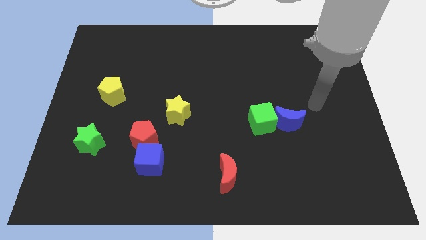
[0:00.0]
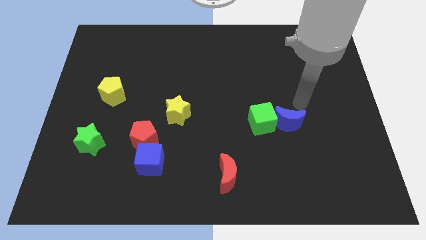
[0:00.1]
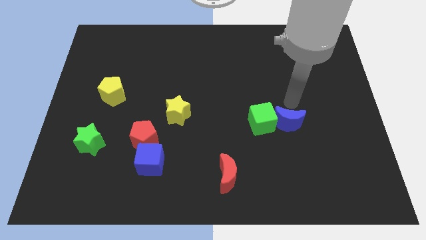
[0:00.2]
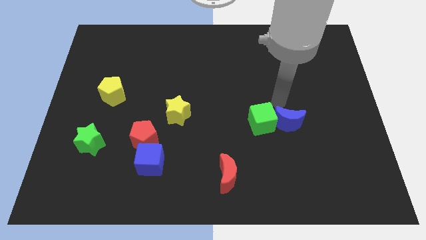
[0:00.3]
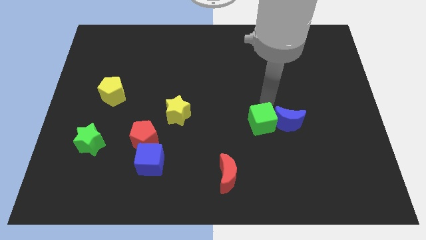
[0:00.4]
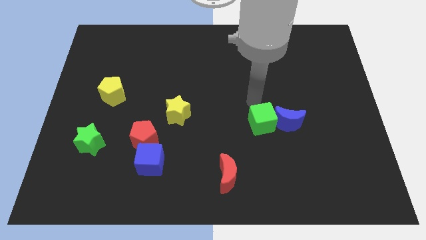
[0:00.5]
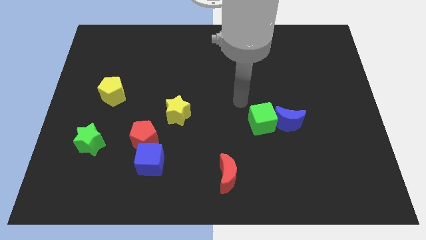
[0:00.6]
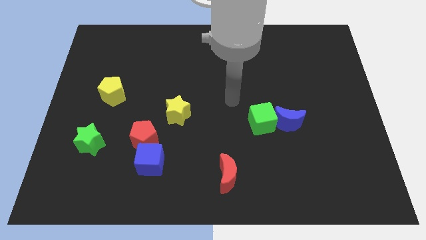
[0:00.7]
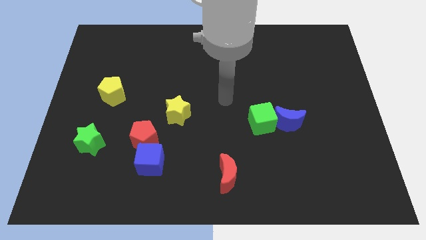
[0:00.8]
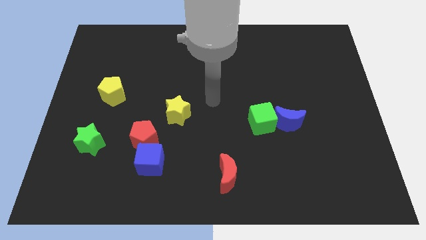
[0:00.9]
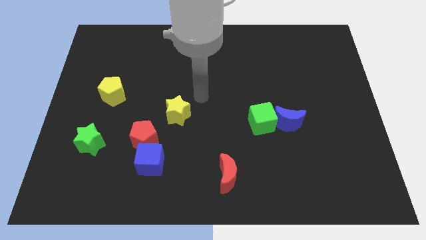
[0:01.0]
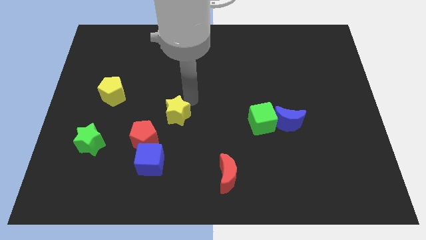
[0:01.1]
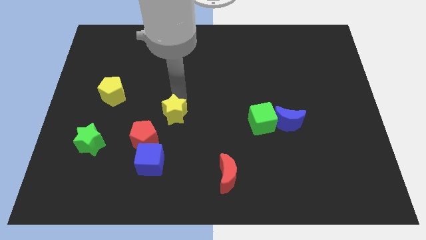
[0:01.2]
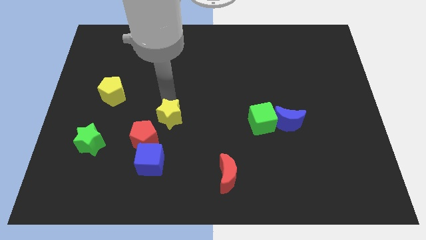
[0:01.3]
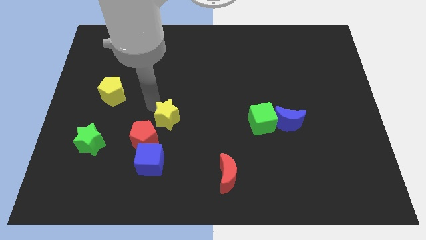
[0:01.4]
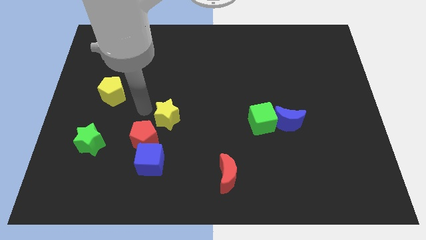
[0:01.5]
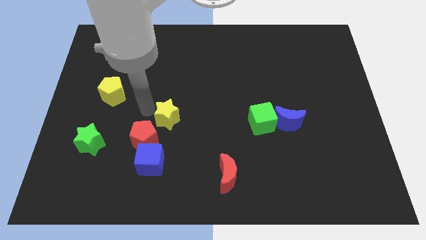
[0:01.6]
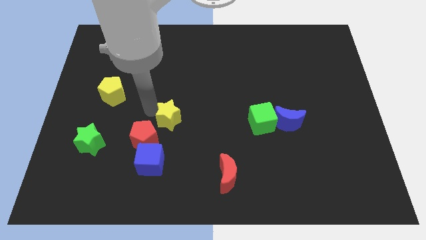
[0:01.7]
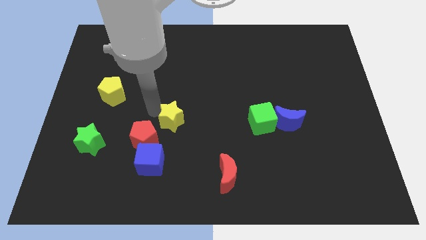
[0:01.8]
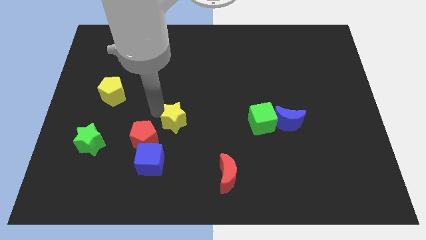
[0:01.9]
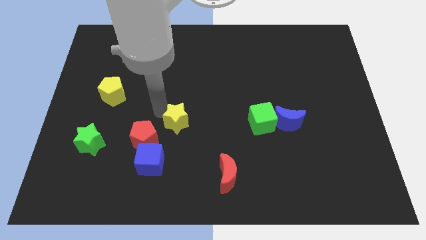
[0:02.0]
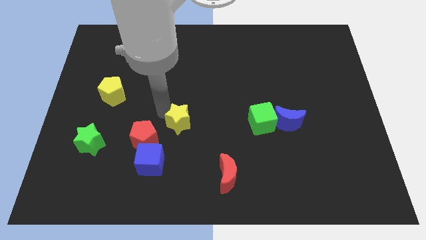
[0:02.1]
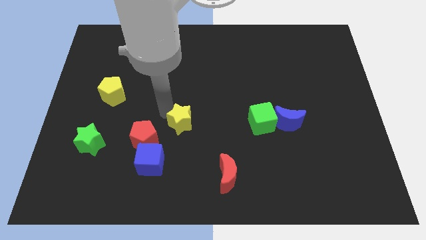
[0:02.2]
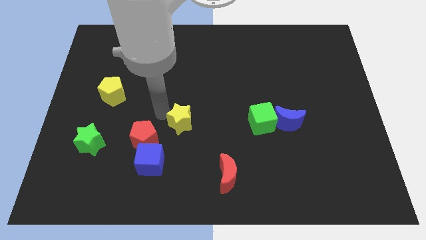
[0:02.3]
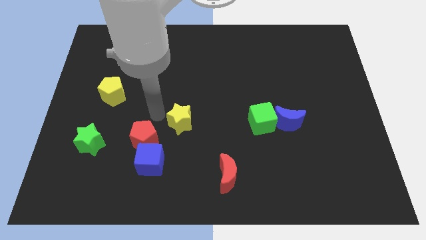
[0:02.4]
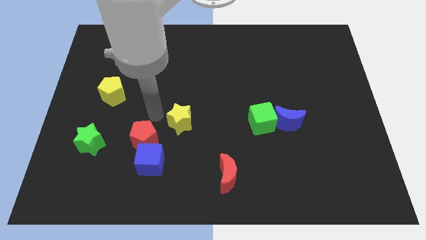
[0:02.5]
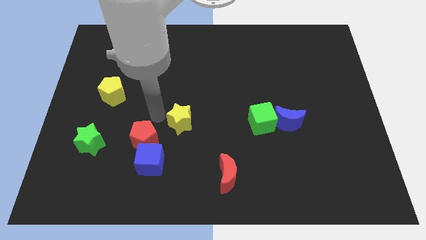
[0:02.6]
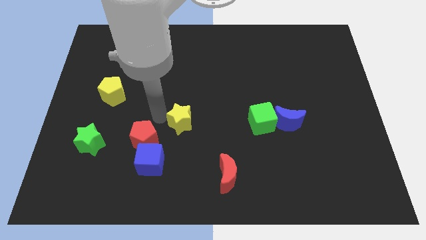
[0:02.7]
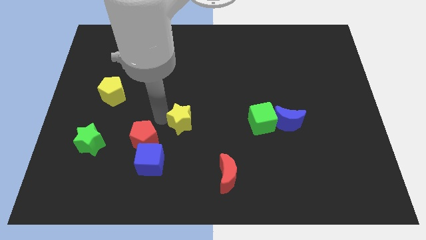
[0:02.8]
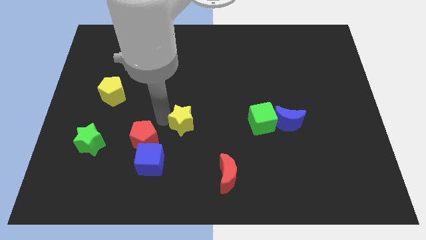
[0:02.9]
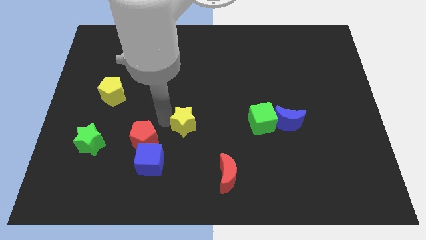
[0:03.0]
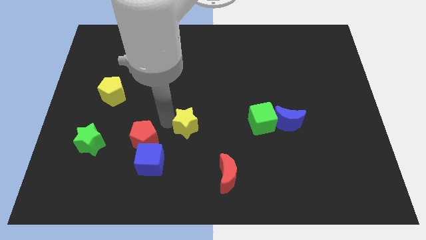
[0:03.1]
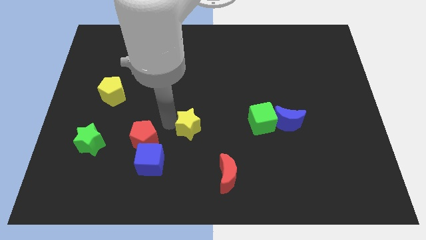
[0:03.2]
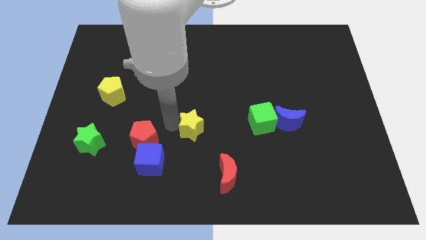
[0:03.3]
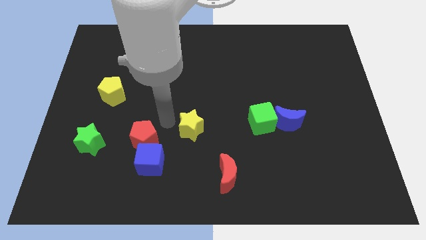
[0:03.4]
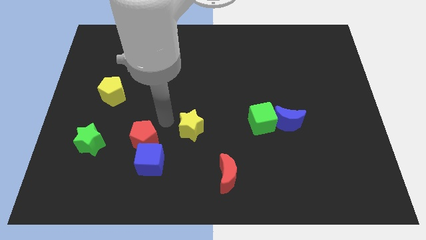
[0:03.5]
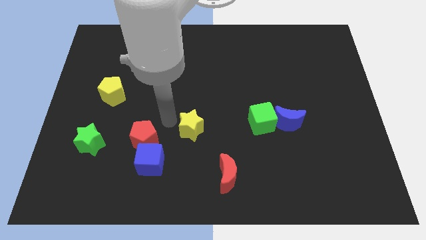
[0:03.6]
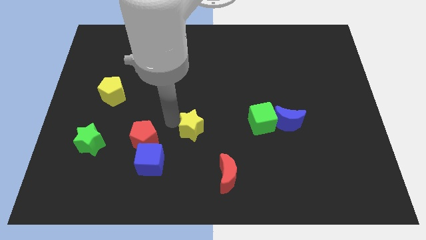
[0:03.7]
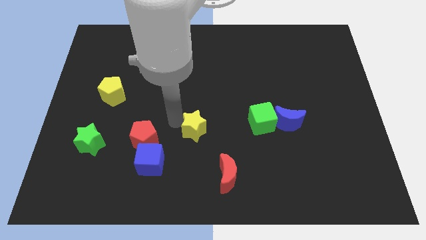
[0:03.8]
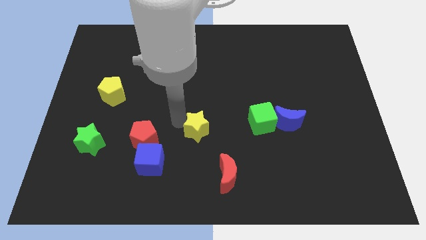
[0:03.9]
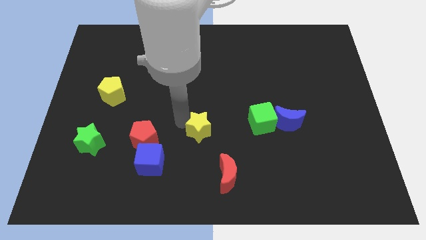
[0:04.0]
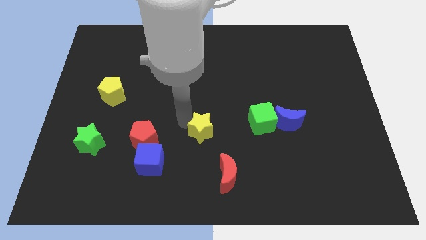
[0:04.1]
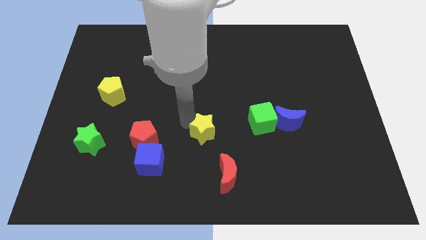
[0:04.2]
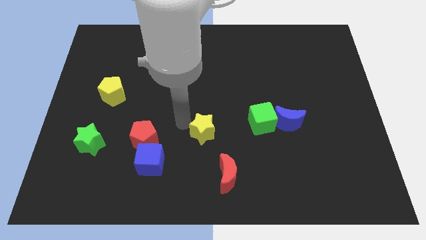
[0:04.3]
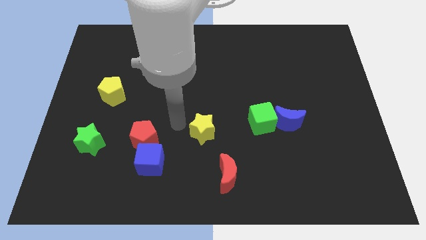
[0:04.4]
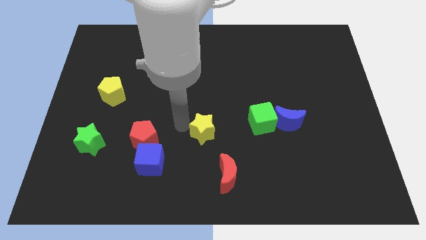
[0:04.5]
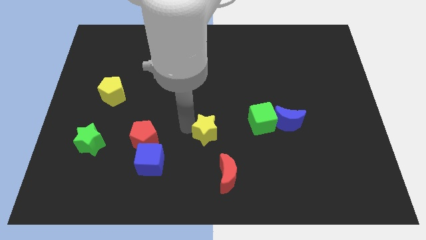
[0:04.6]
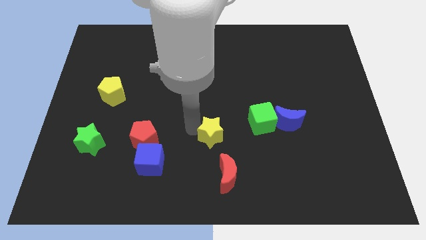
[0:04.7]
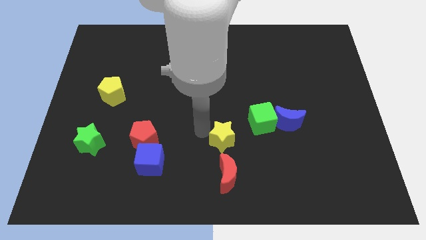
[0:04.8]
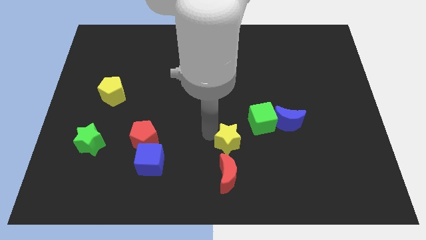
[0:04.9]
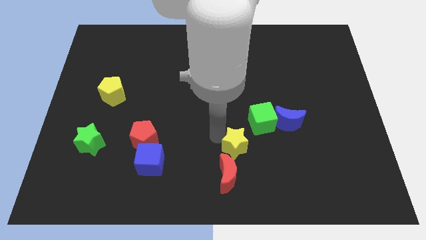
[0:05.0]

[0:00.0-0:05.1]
move the yellow star to the top right side of the red moon

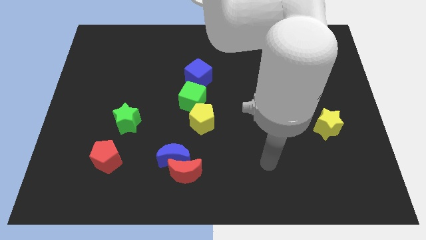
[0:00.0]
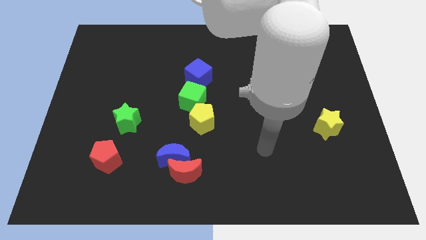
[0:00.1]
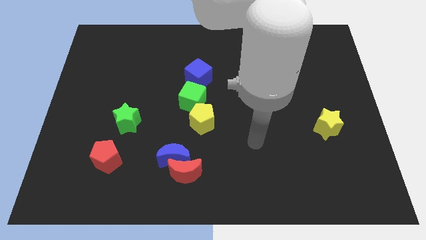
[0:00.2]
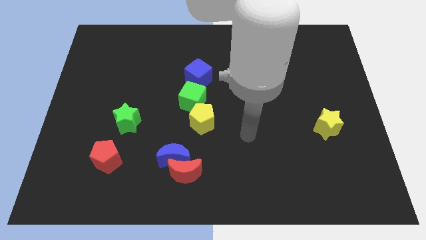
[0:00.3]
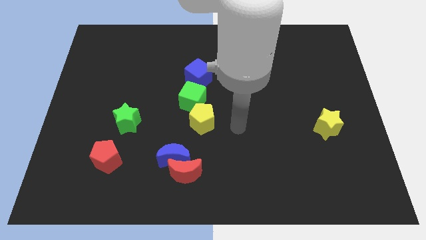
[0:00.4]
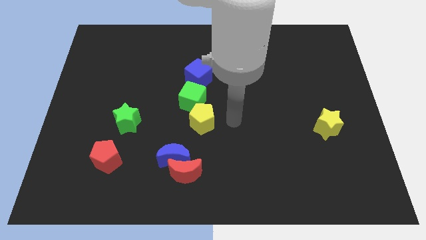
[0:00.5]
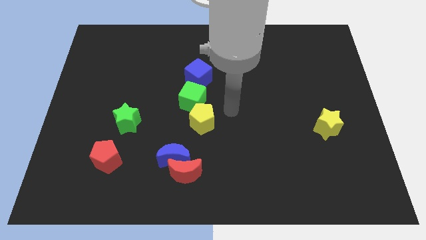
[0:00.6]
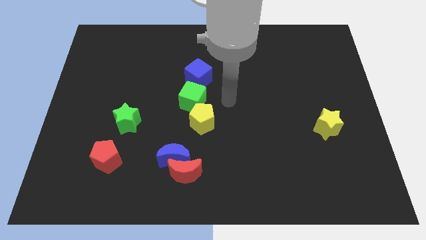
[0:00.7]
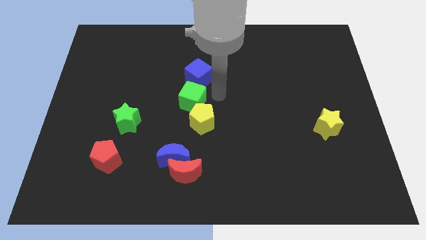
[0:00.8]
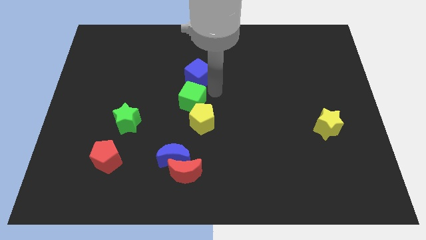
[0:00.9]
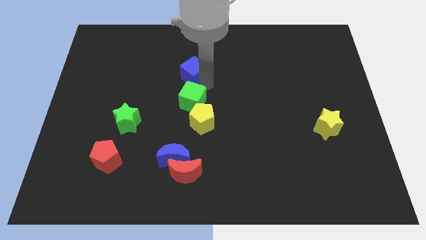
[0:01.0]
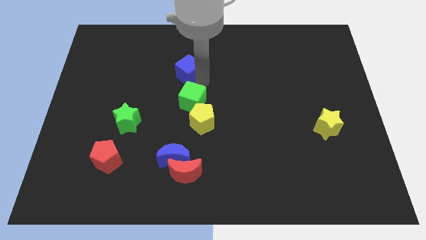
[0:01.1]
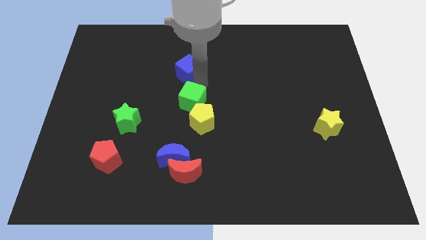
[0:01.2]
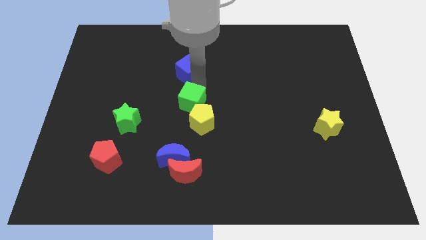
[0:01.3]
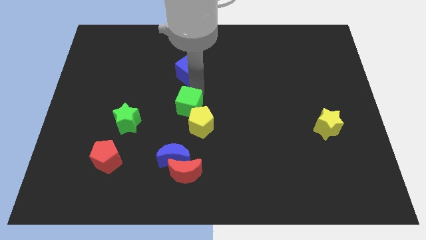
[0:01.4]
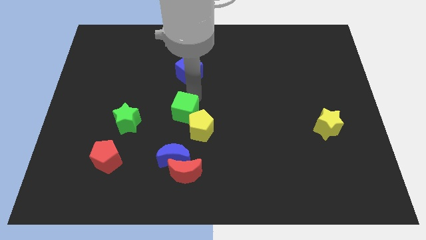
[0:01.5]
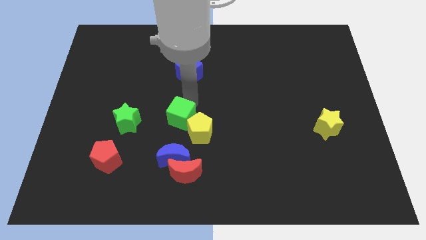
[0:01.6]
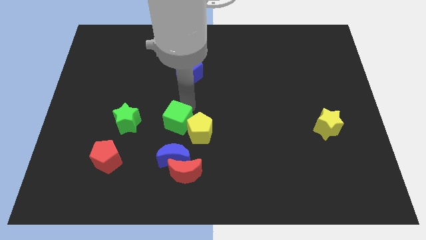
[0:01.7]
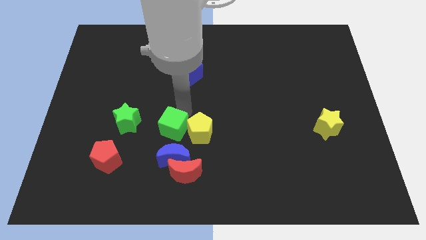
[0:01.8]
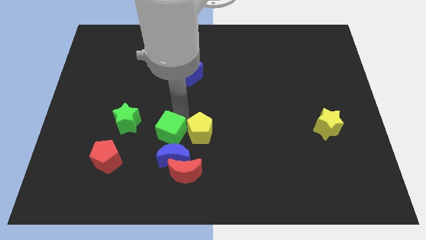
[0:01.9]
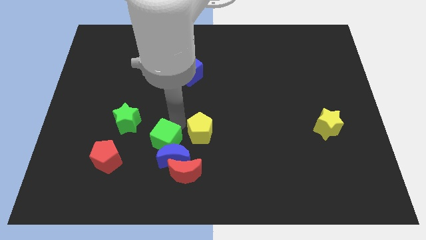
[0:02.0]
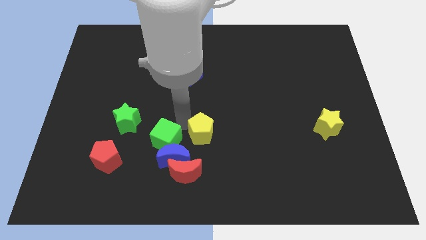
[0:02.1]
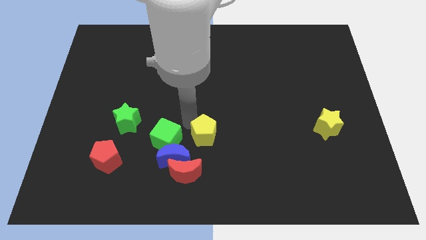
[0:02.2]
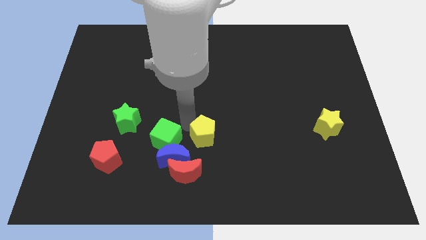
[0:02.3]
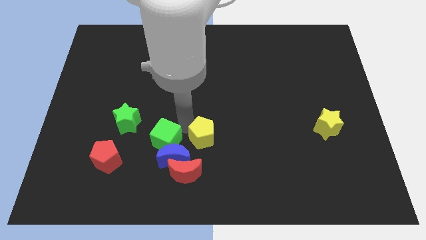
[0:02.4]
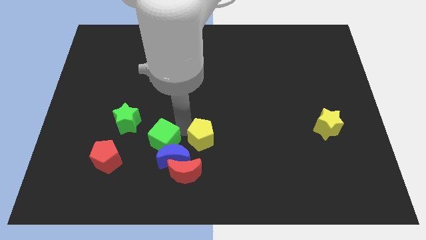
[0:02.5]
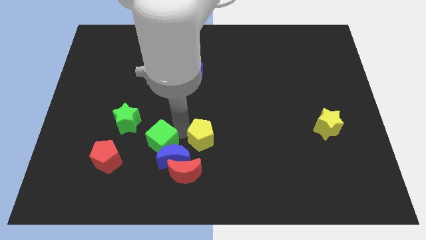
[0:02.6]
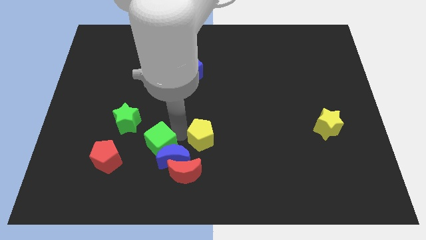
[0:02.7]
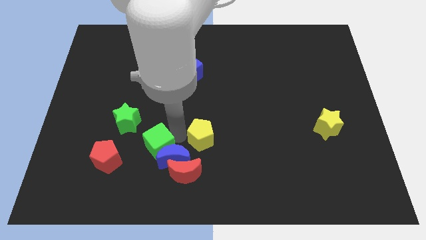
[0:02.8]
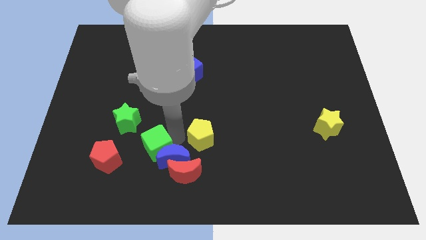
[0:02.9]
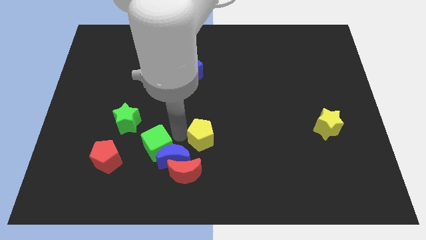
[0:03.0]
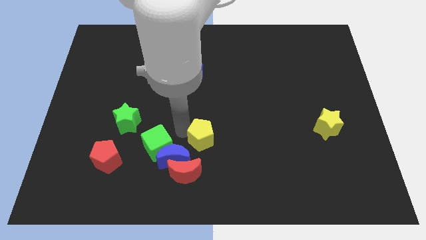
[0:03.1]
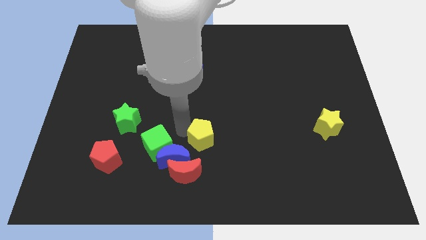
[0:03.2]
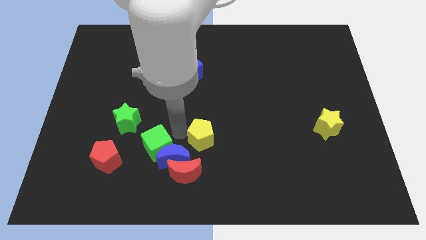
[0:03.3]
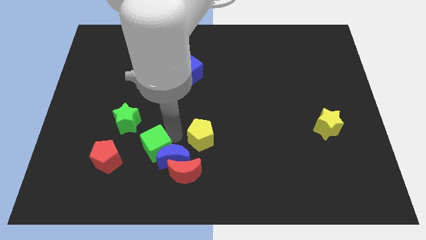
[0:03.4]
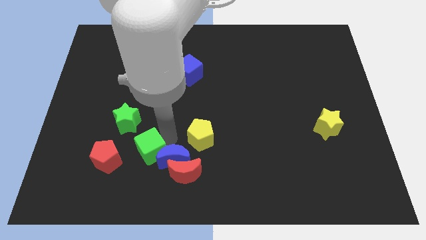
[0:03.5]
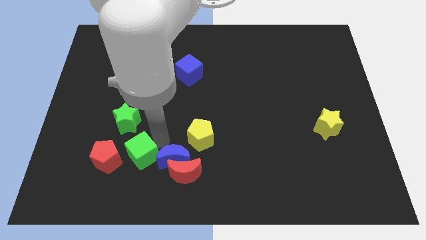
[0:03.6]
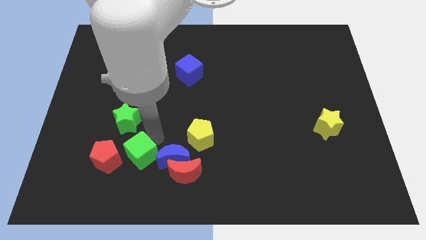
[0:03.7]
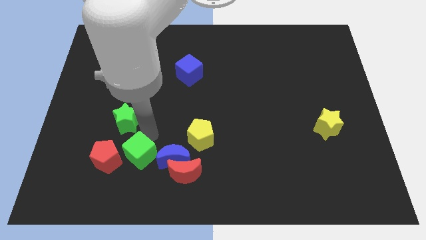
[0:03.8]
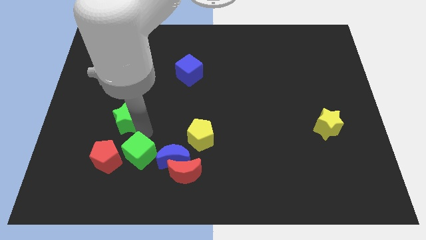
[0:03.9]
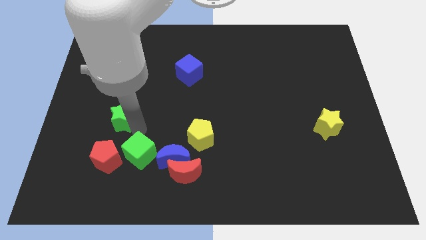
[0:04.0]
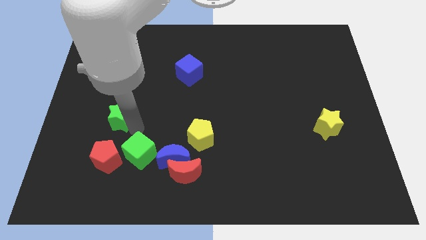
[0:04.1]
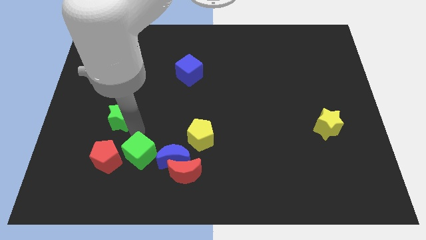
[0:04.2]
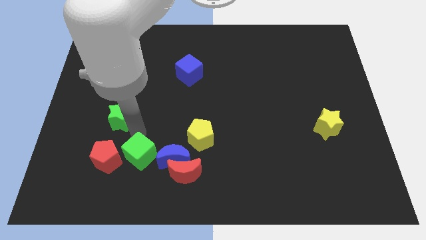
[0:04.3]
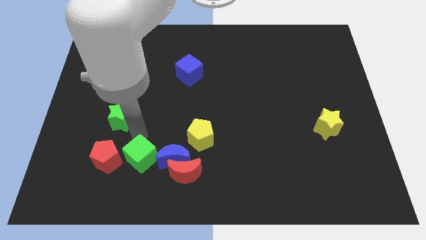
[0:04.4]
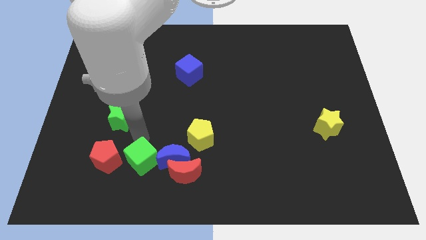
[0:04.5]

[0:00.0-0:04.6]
move the green cube to the bottom left of the blue moon
